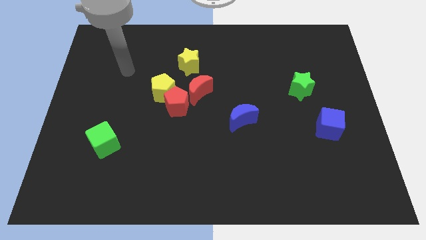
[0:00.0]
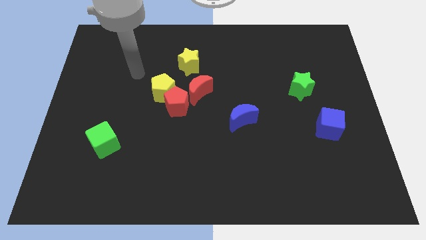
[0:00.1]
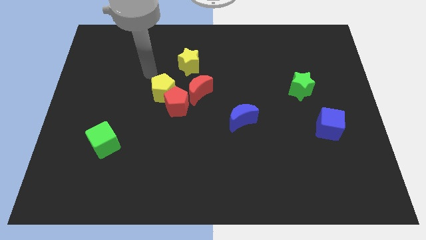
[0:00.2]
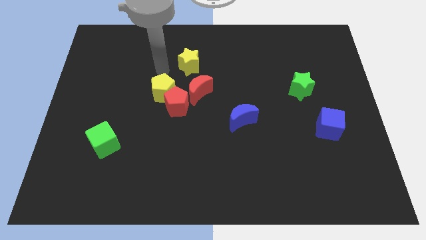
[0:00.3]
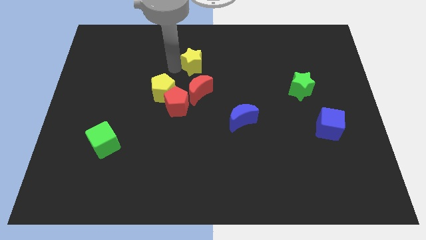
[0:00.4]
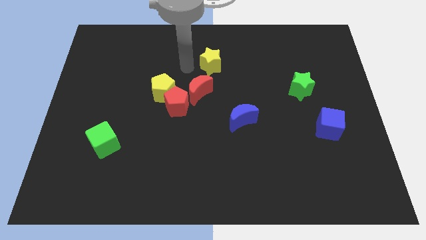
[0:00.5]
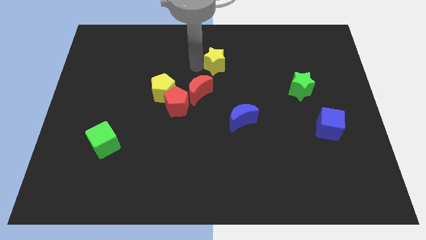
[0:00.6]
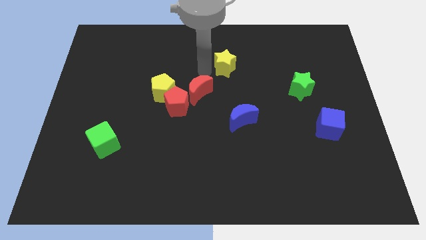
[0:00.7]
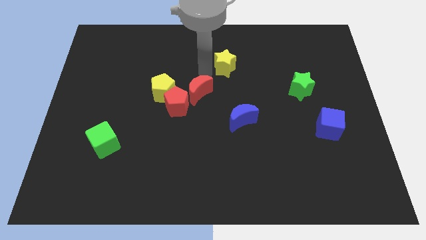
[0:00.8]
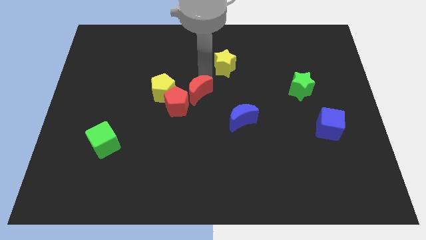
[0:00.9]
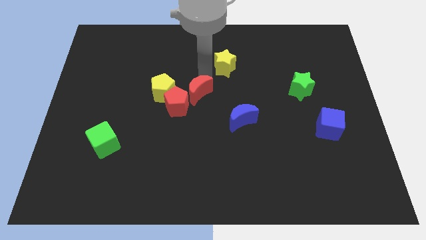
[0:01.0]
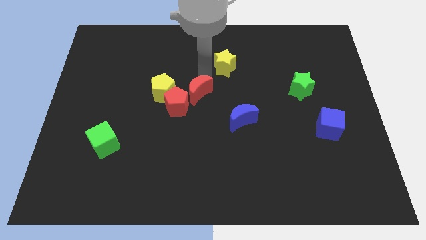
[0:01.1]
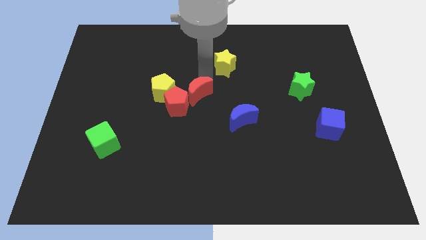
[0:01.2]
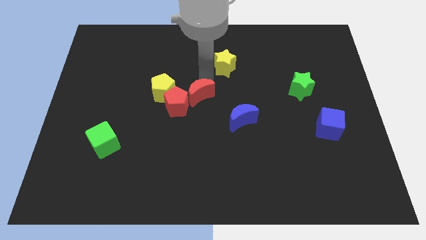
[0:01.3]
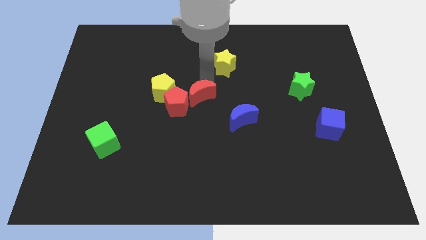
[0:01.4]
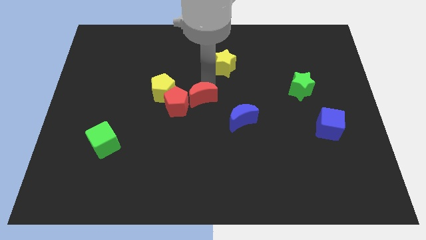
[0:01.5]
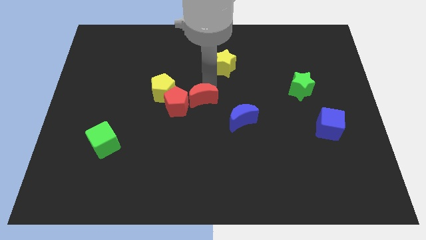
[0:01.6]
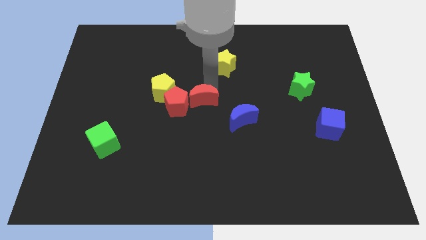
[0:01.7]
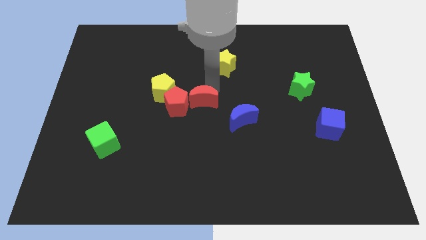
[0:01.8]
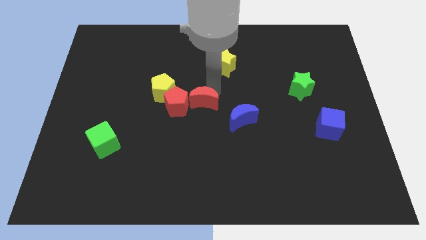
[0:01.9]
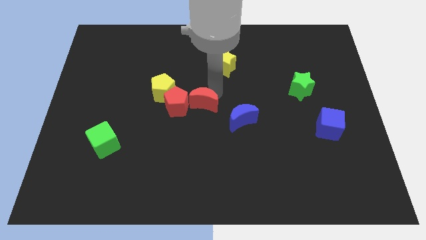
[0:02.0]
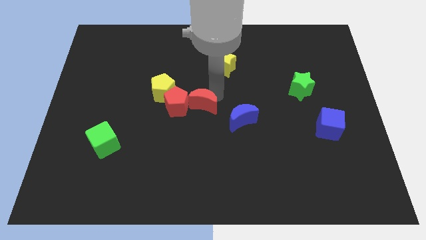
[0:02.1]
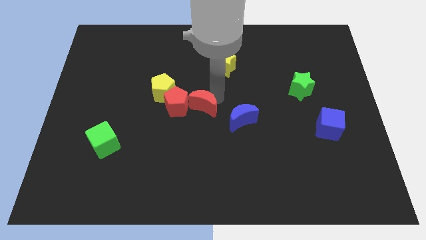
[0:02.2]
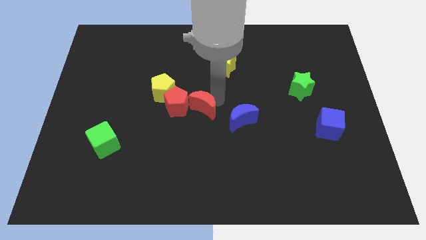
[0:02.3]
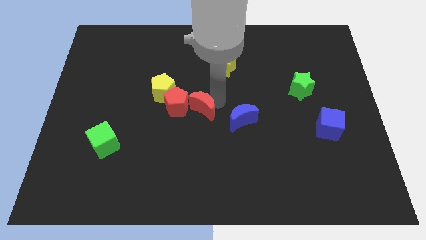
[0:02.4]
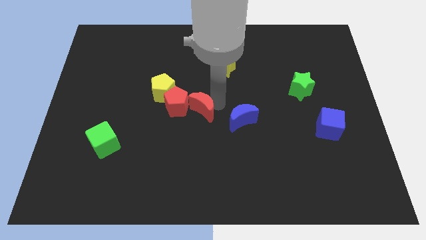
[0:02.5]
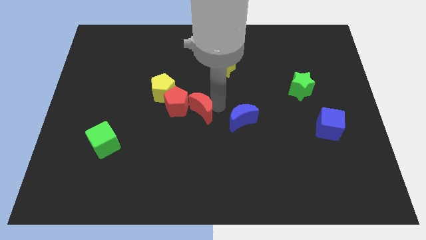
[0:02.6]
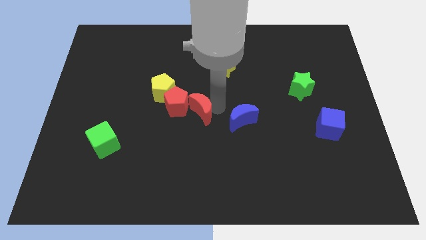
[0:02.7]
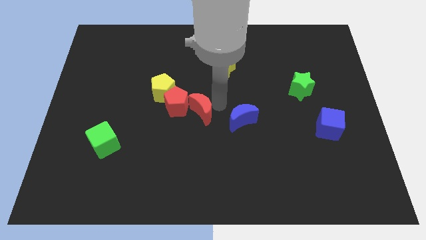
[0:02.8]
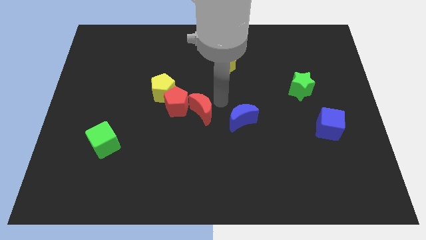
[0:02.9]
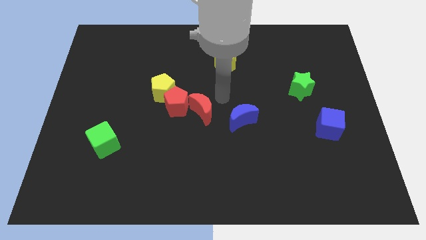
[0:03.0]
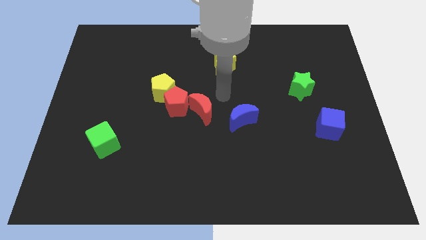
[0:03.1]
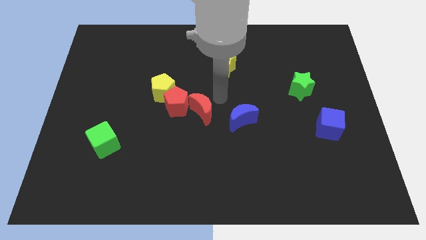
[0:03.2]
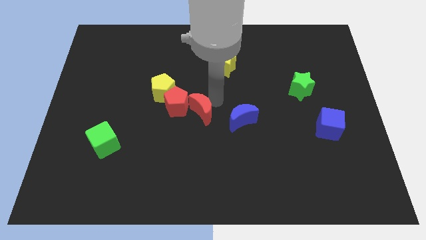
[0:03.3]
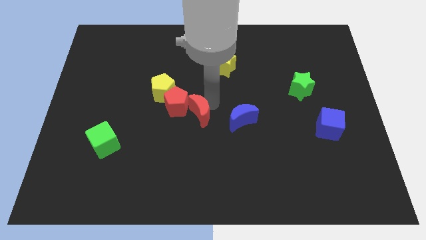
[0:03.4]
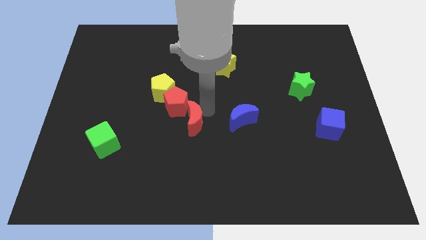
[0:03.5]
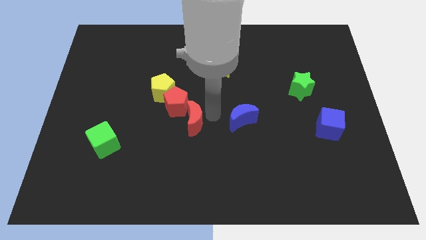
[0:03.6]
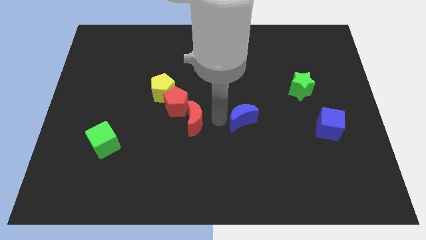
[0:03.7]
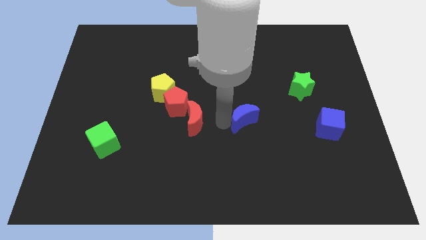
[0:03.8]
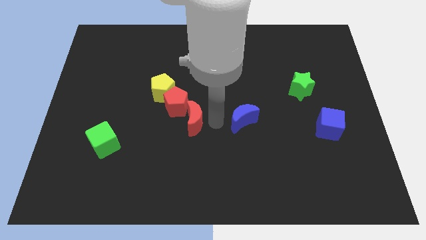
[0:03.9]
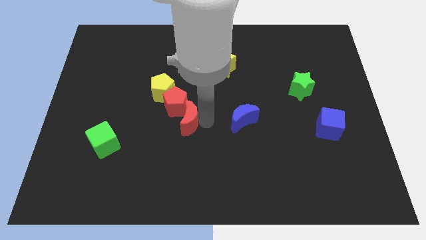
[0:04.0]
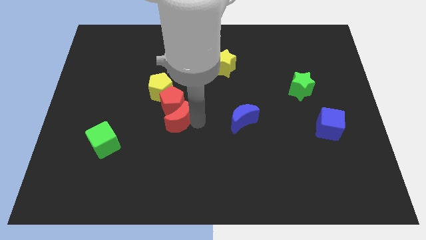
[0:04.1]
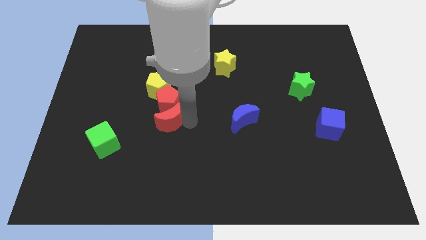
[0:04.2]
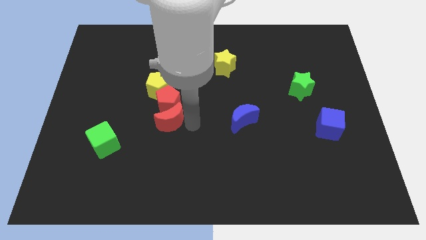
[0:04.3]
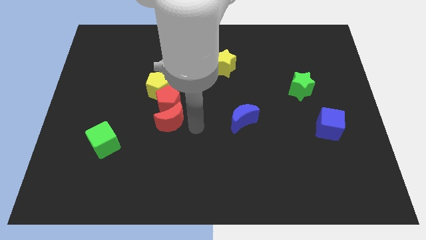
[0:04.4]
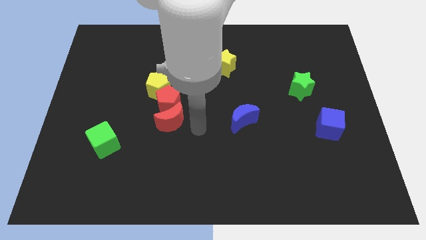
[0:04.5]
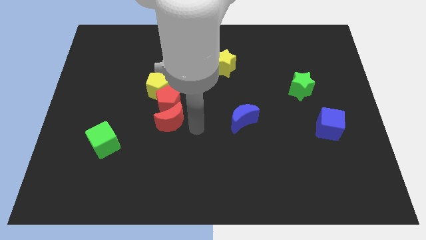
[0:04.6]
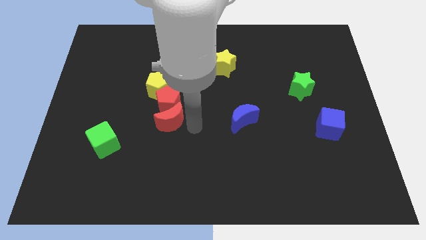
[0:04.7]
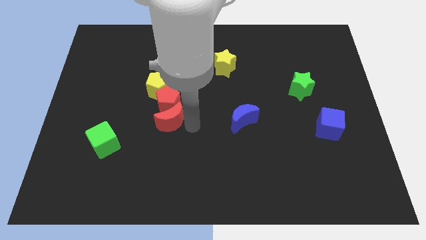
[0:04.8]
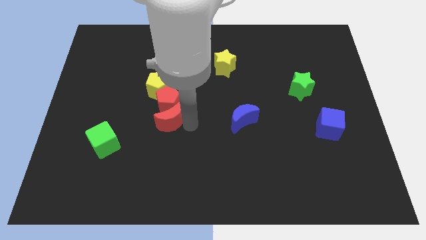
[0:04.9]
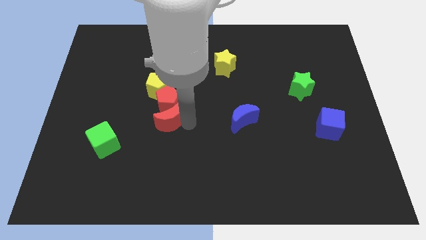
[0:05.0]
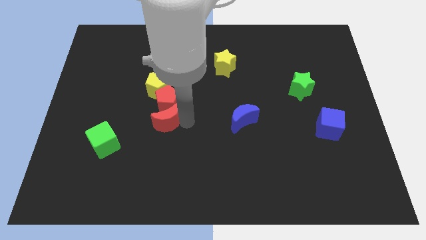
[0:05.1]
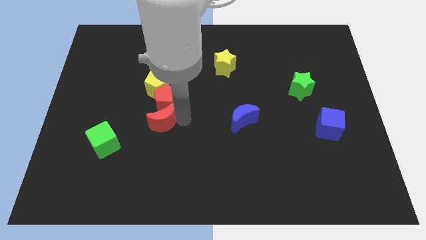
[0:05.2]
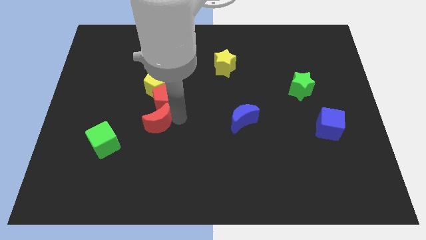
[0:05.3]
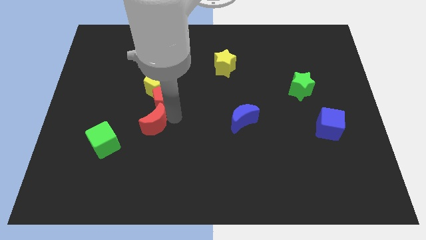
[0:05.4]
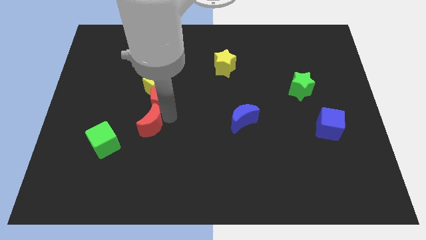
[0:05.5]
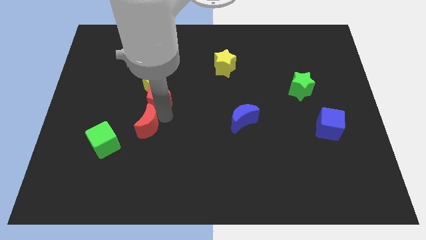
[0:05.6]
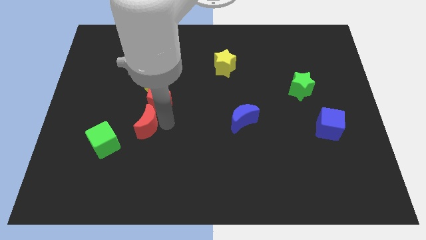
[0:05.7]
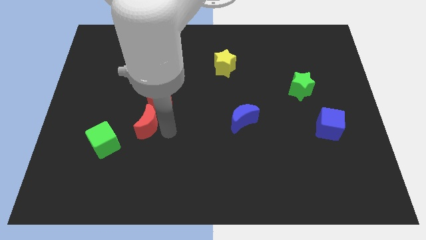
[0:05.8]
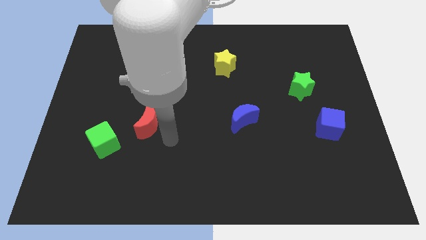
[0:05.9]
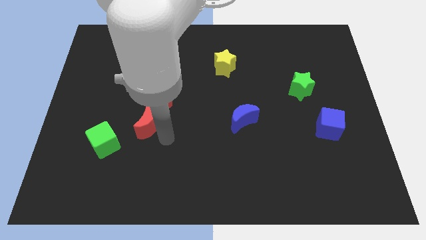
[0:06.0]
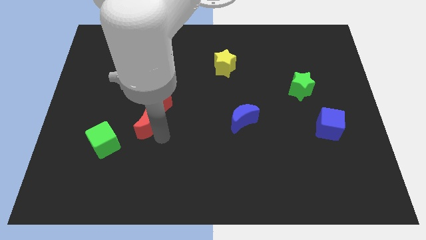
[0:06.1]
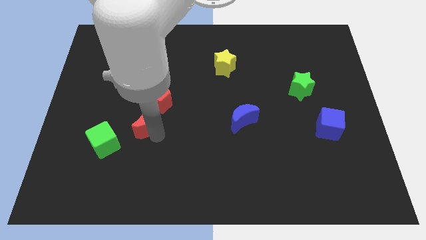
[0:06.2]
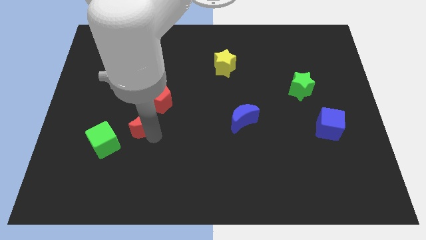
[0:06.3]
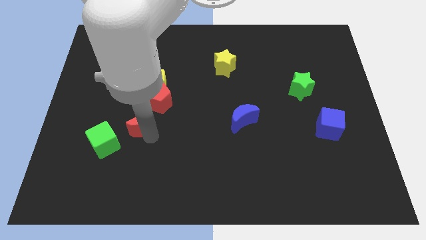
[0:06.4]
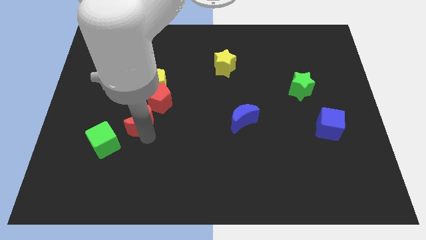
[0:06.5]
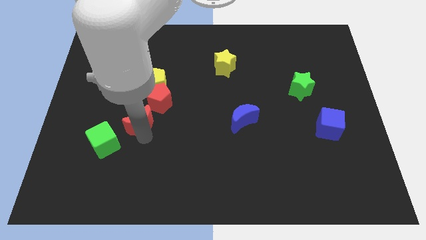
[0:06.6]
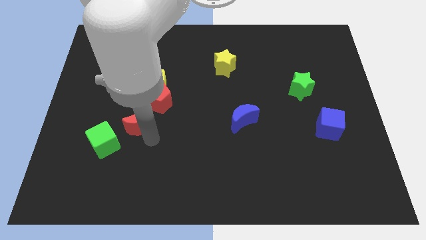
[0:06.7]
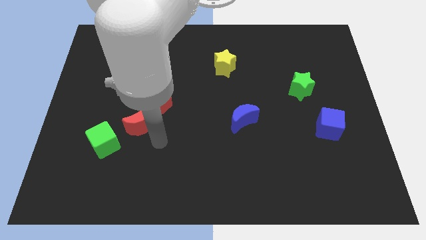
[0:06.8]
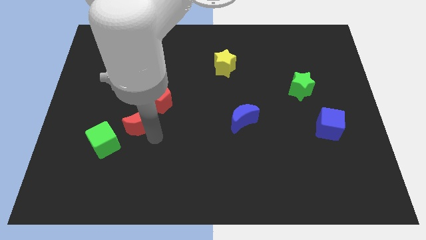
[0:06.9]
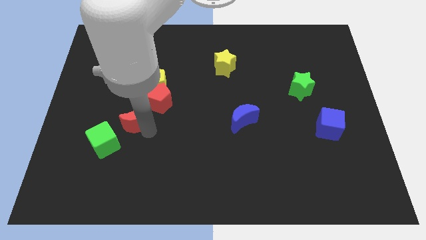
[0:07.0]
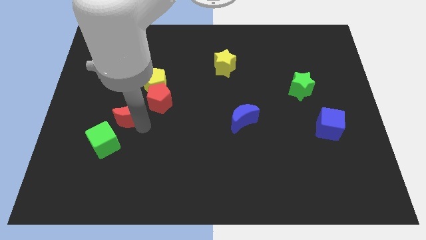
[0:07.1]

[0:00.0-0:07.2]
move the red moon just left of the red pentagon
